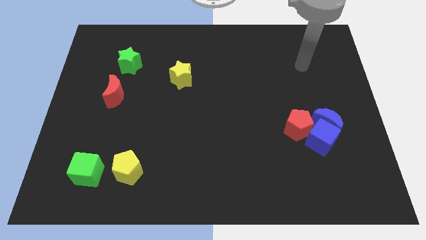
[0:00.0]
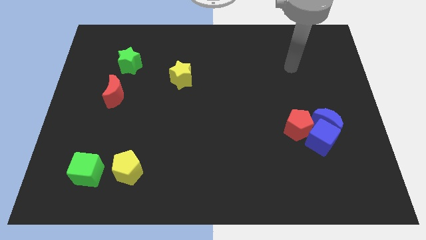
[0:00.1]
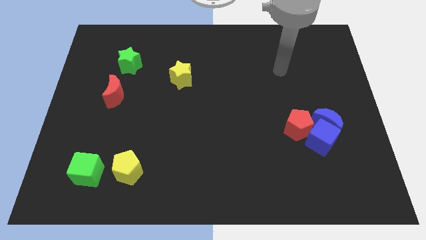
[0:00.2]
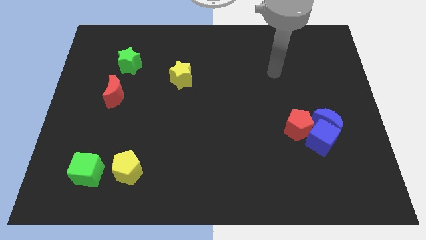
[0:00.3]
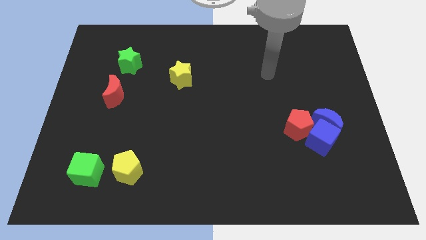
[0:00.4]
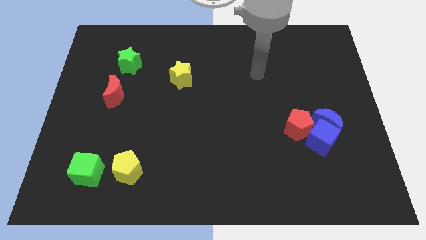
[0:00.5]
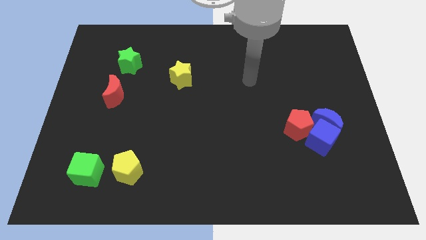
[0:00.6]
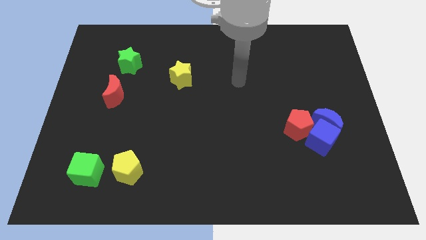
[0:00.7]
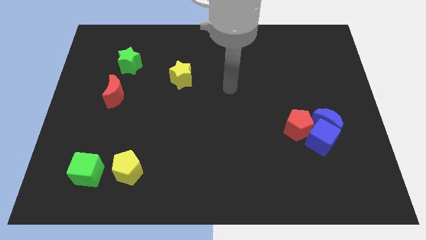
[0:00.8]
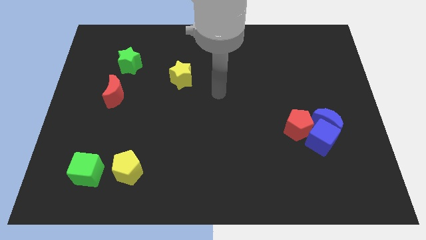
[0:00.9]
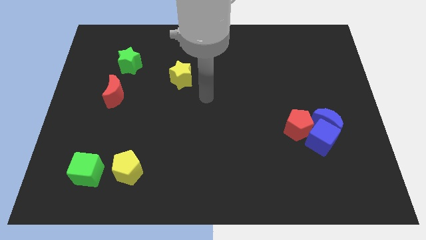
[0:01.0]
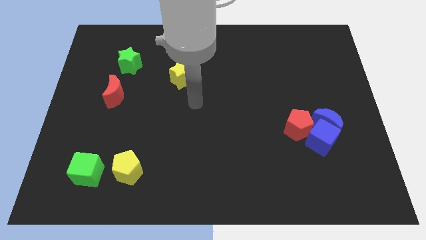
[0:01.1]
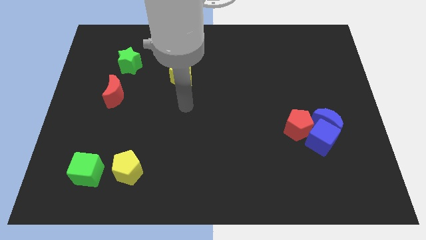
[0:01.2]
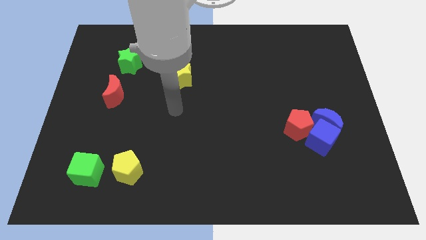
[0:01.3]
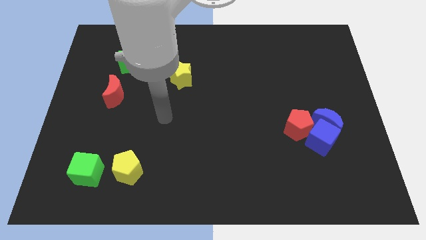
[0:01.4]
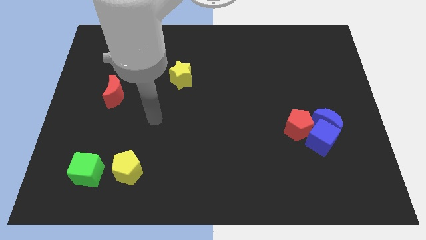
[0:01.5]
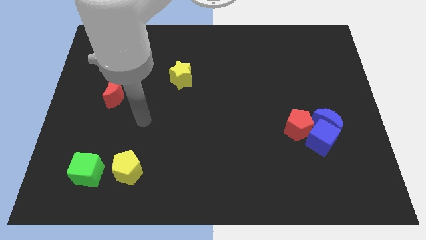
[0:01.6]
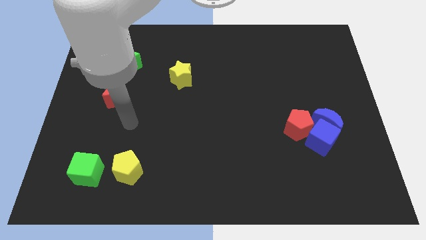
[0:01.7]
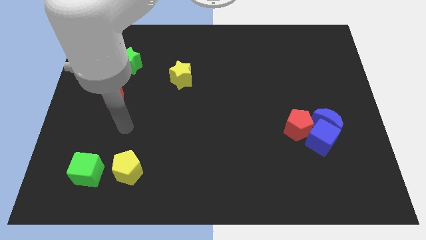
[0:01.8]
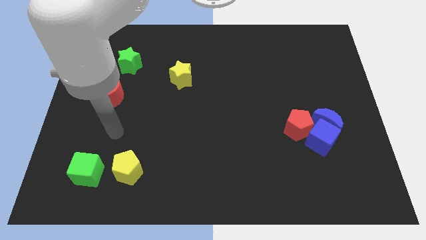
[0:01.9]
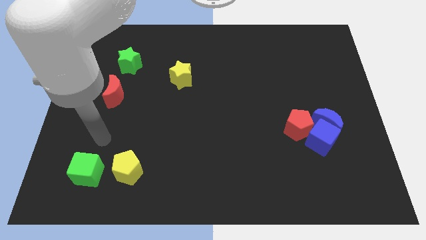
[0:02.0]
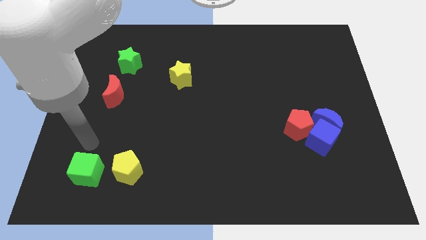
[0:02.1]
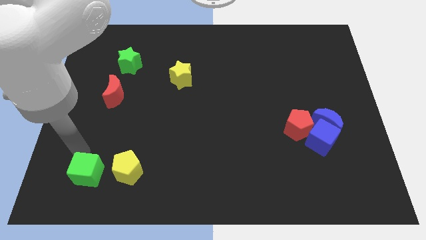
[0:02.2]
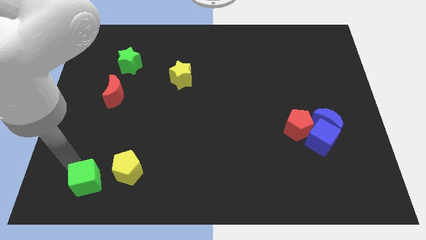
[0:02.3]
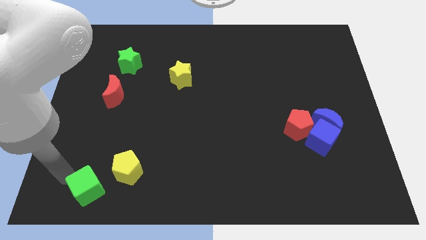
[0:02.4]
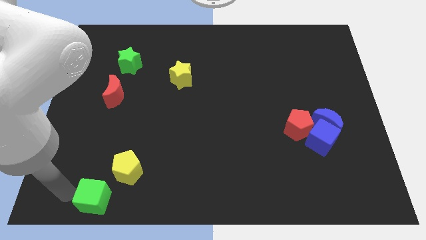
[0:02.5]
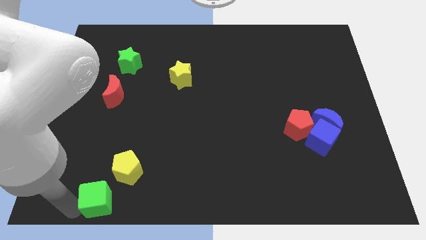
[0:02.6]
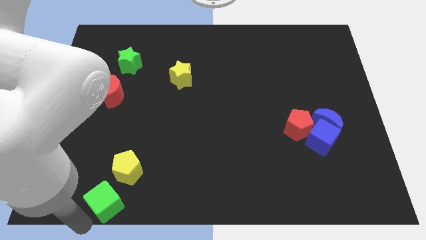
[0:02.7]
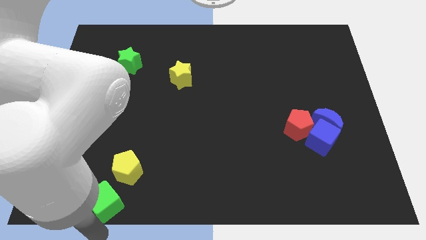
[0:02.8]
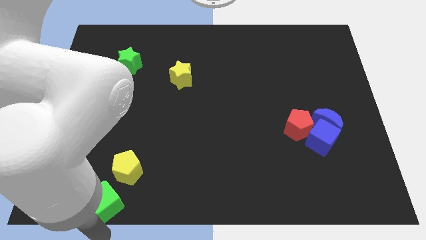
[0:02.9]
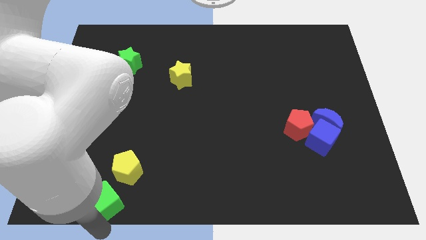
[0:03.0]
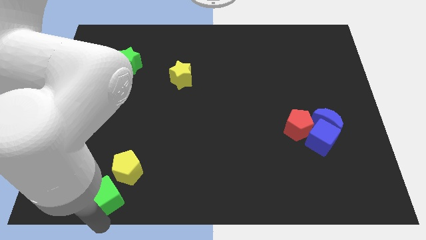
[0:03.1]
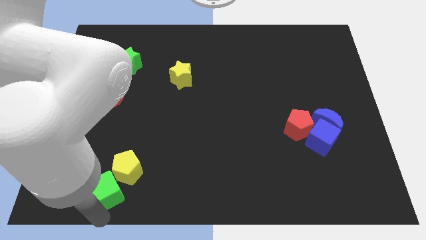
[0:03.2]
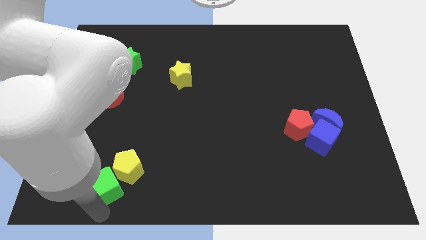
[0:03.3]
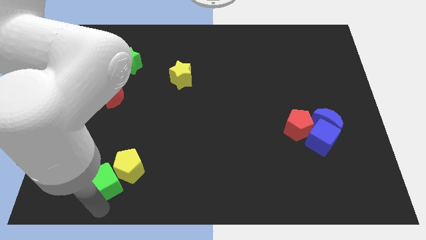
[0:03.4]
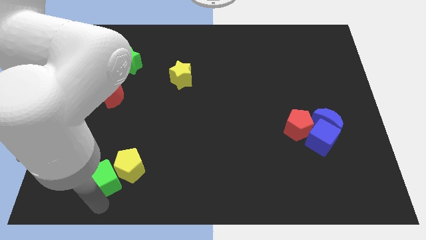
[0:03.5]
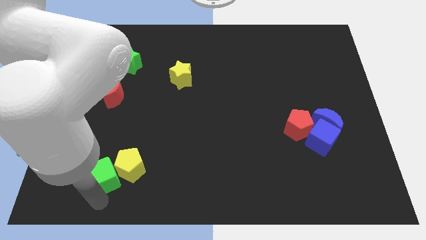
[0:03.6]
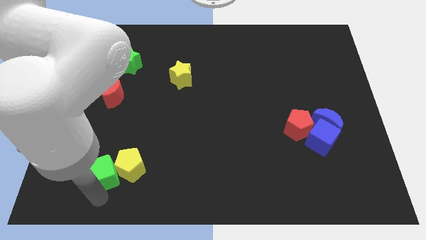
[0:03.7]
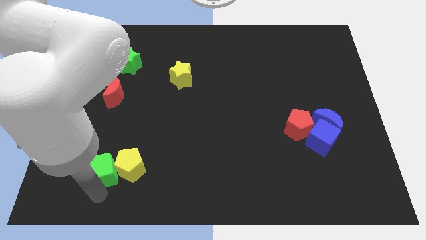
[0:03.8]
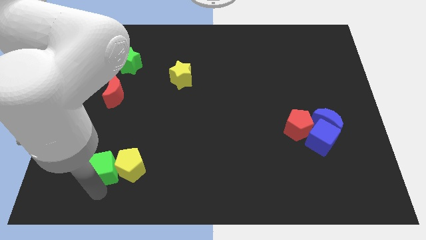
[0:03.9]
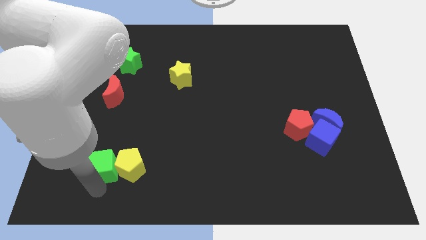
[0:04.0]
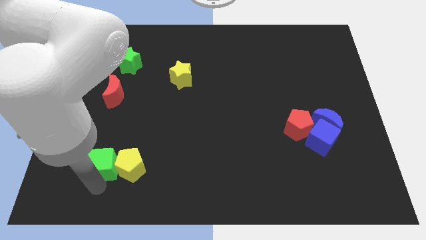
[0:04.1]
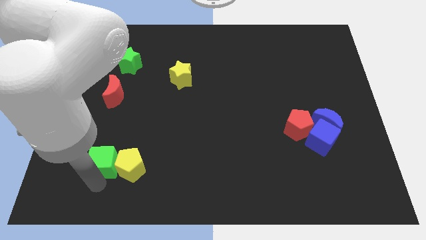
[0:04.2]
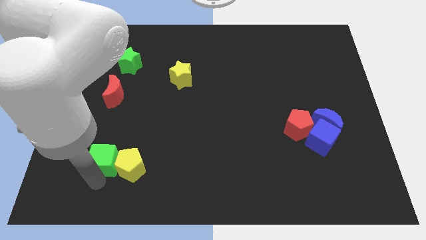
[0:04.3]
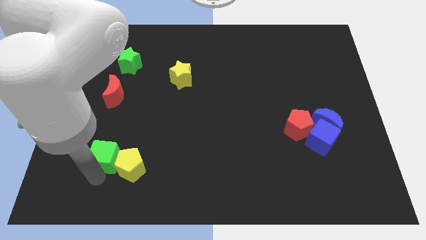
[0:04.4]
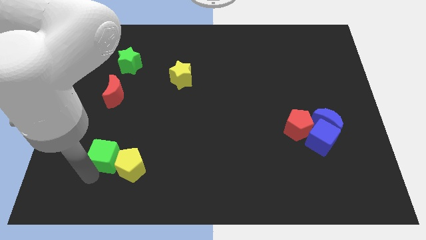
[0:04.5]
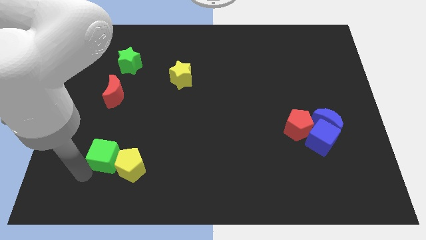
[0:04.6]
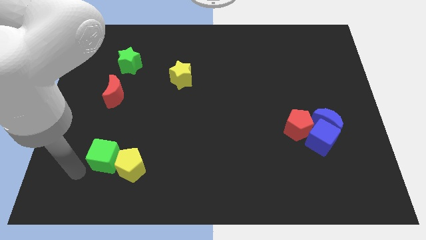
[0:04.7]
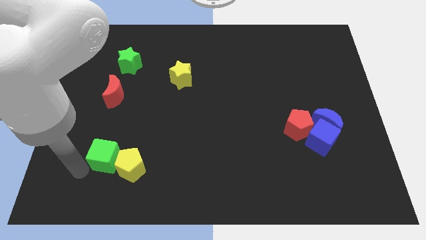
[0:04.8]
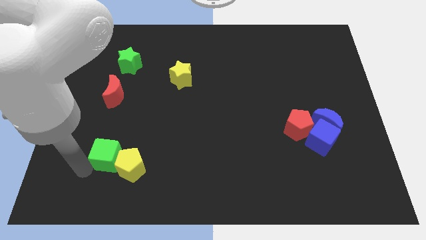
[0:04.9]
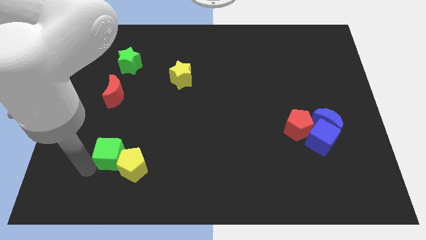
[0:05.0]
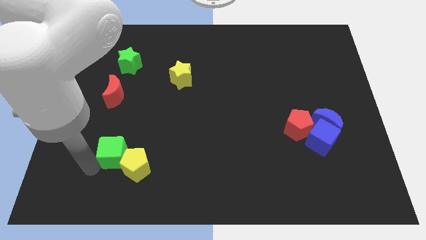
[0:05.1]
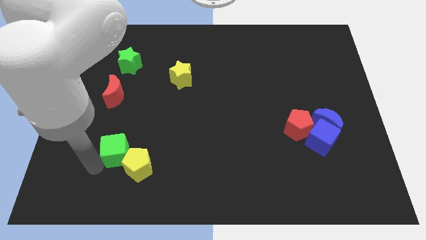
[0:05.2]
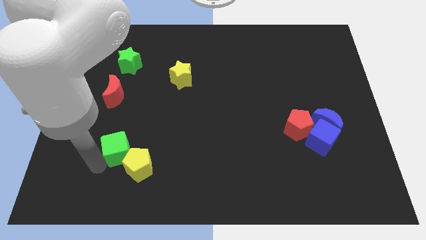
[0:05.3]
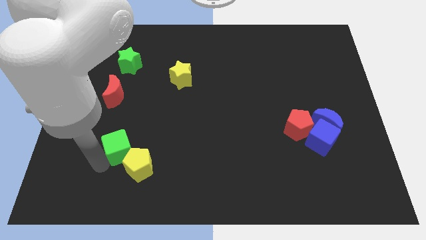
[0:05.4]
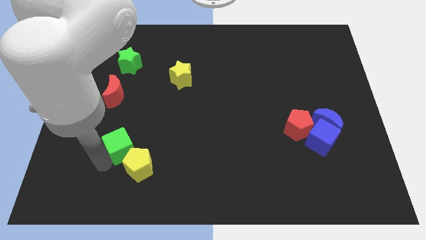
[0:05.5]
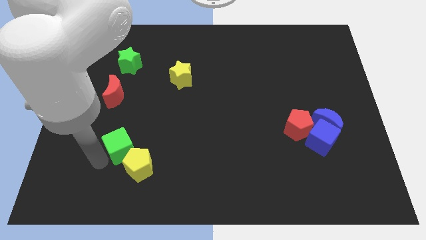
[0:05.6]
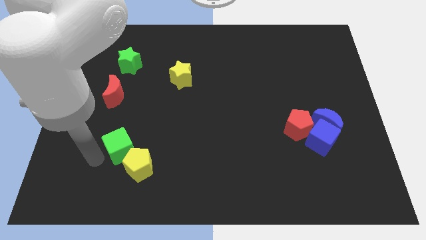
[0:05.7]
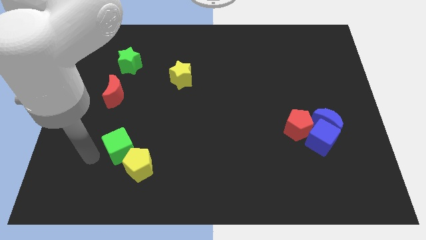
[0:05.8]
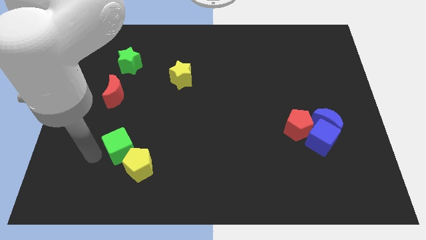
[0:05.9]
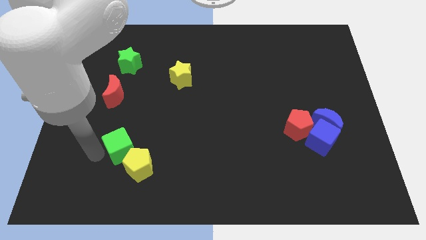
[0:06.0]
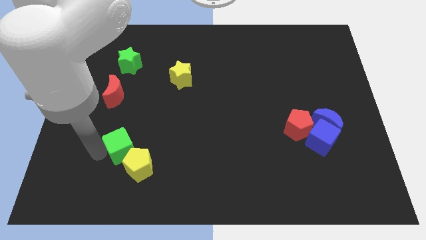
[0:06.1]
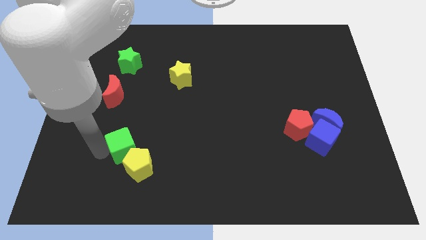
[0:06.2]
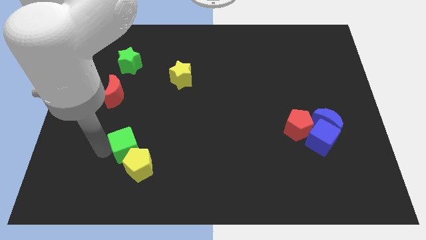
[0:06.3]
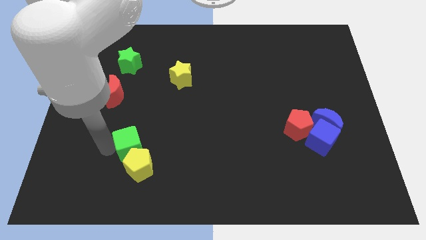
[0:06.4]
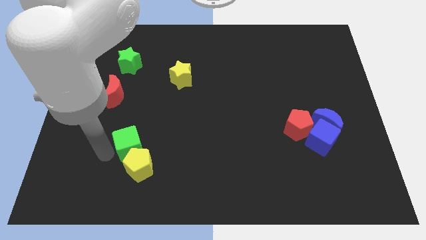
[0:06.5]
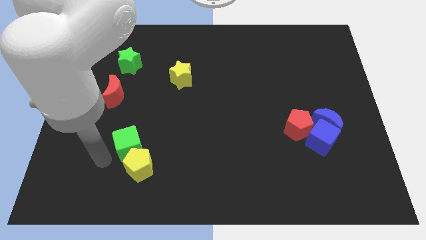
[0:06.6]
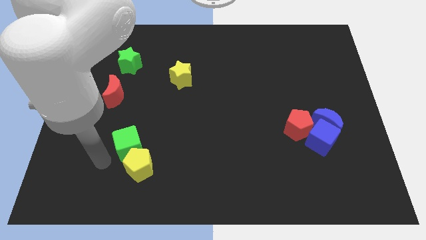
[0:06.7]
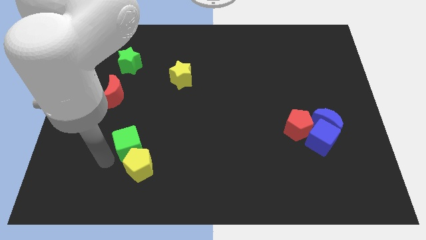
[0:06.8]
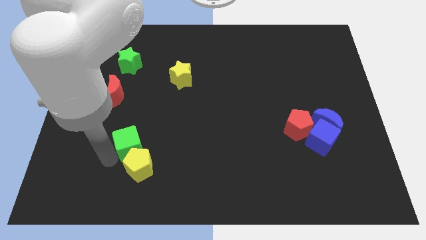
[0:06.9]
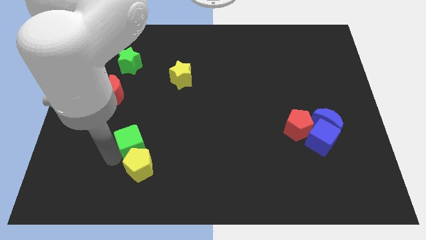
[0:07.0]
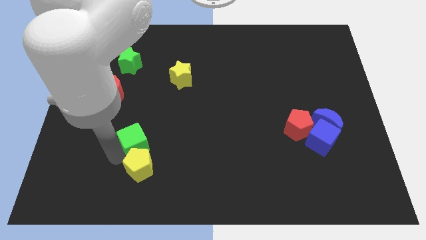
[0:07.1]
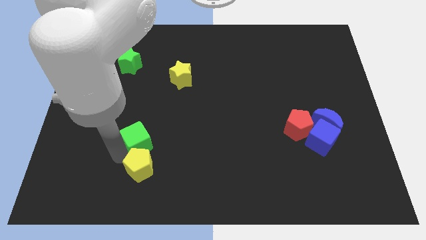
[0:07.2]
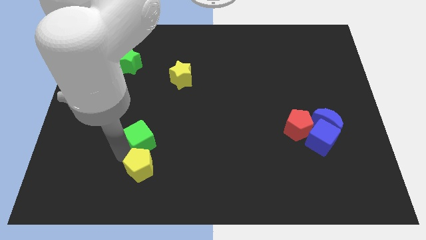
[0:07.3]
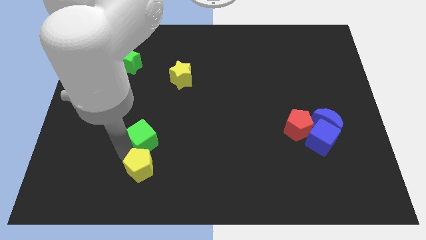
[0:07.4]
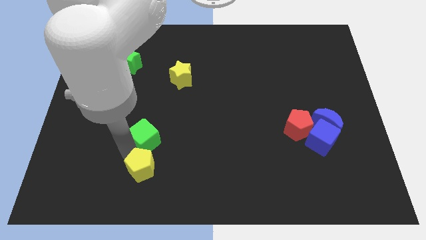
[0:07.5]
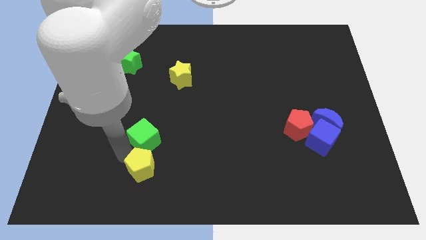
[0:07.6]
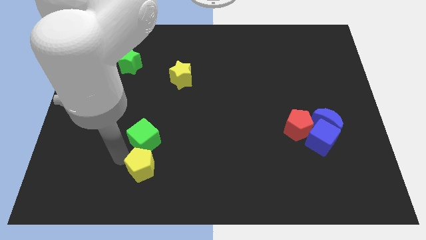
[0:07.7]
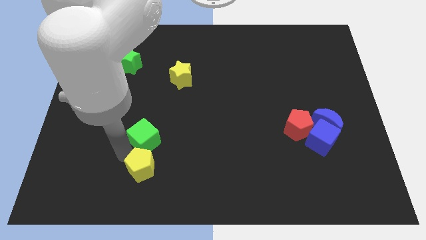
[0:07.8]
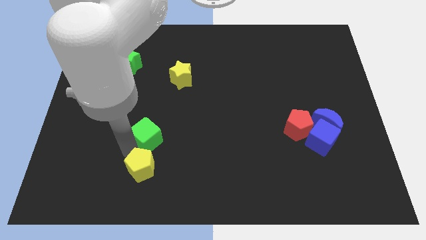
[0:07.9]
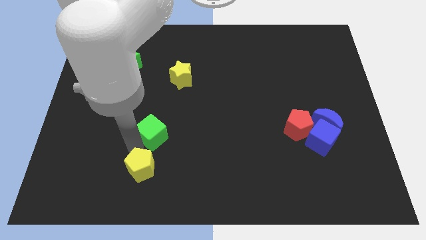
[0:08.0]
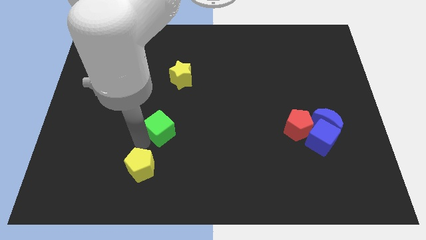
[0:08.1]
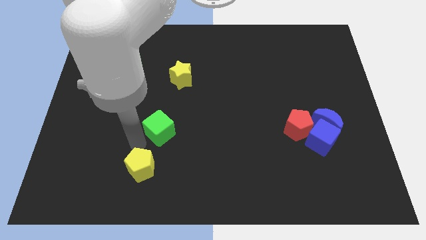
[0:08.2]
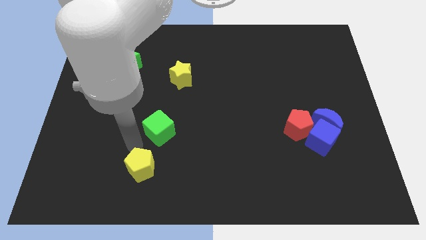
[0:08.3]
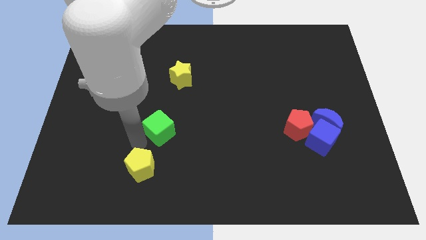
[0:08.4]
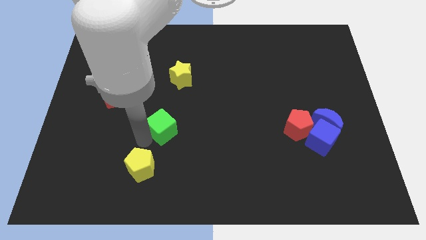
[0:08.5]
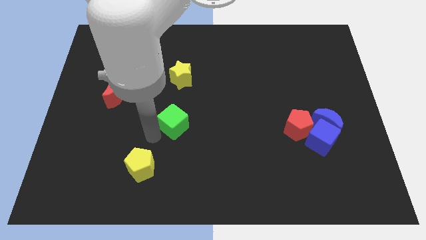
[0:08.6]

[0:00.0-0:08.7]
slide the green cube up and to the right
